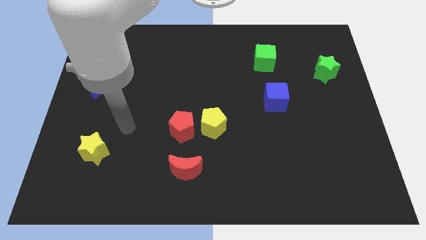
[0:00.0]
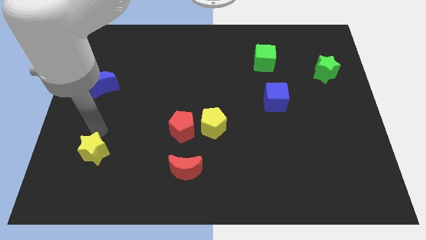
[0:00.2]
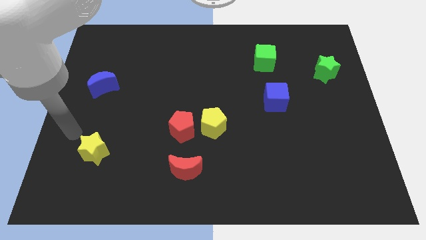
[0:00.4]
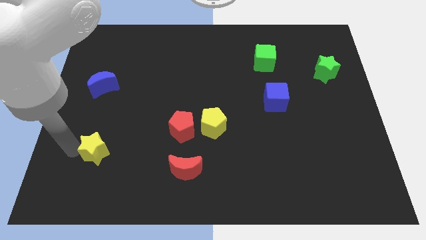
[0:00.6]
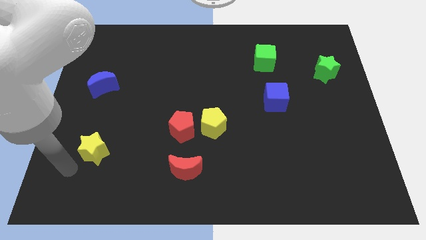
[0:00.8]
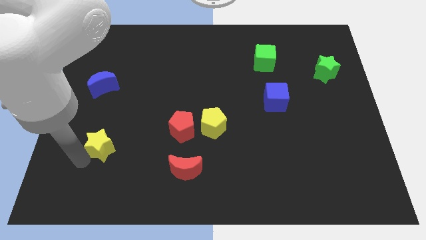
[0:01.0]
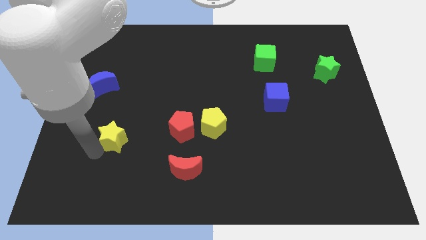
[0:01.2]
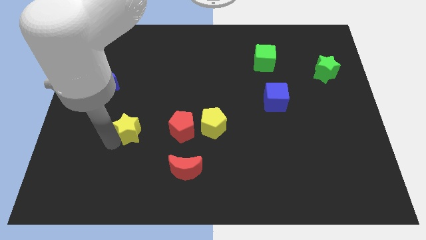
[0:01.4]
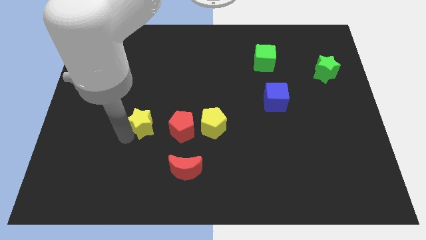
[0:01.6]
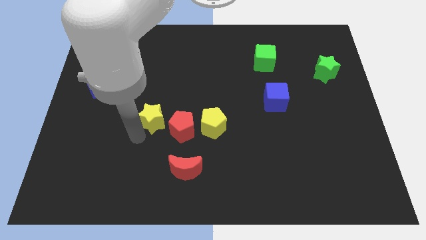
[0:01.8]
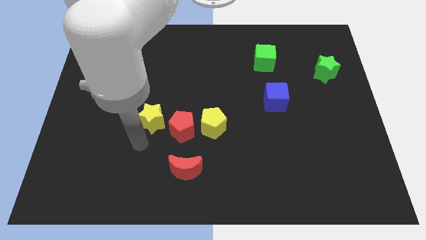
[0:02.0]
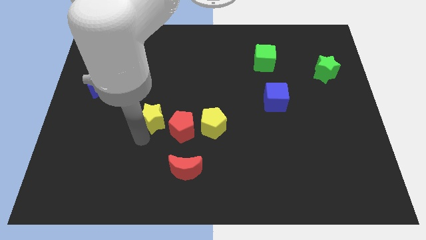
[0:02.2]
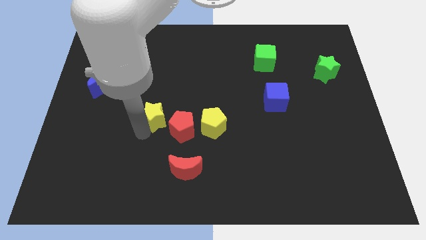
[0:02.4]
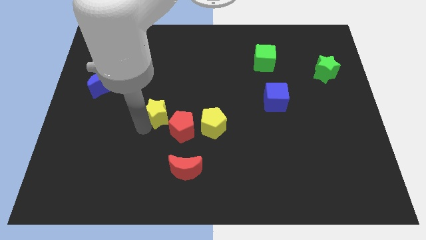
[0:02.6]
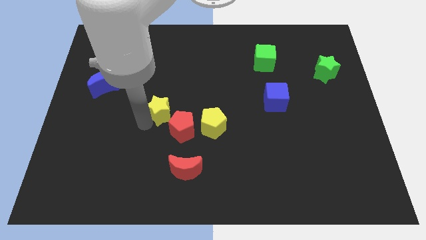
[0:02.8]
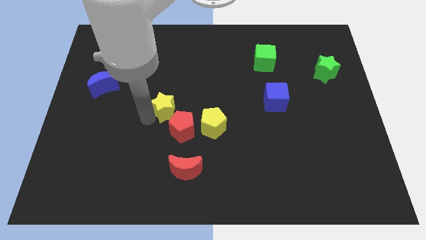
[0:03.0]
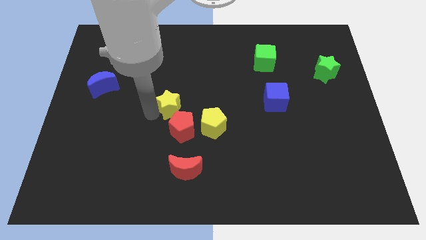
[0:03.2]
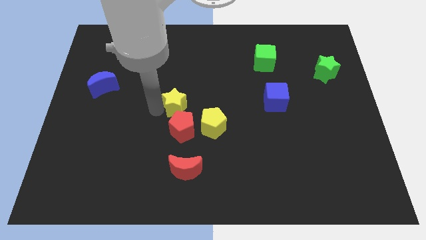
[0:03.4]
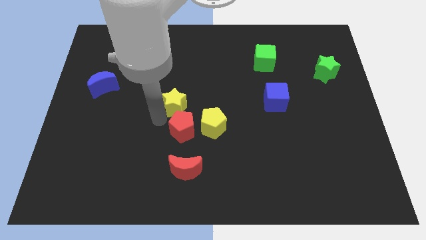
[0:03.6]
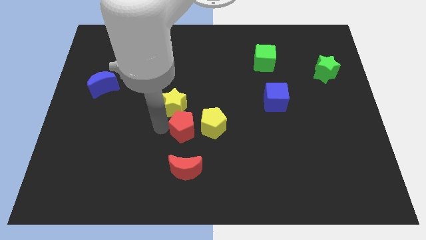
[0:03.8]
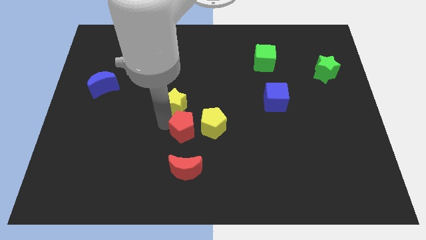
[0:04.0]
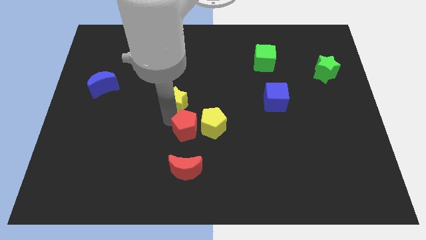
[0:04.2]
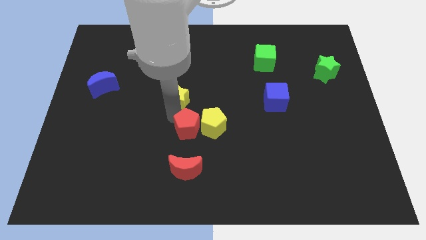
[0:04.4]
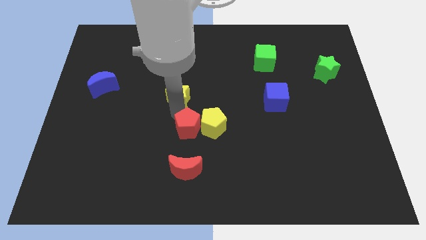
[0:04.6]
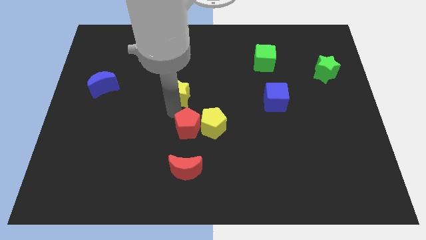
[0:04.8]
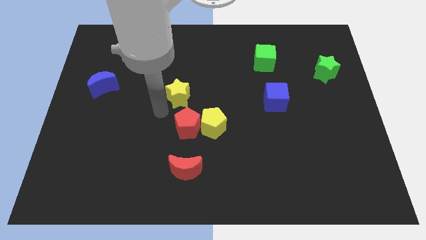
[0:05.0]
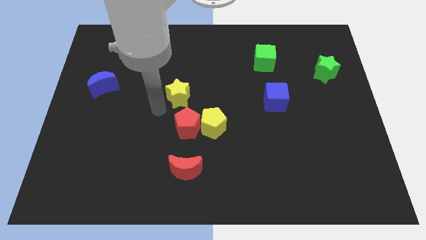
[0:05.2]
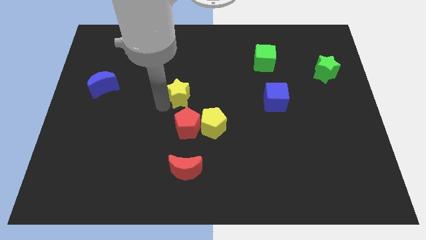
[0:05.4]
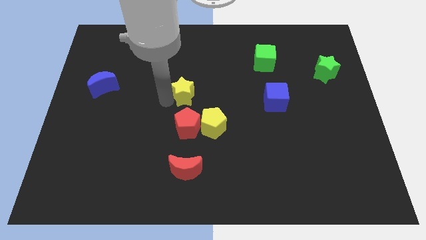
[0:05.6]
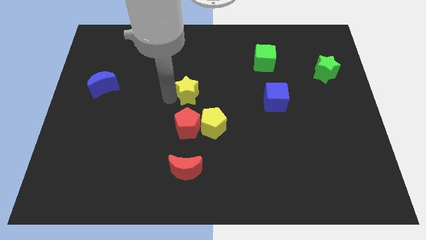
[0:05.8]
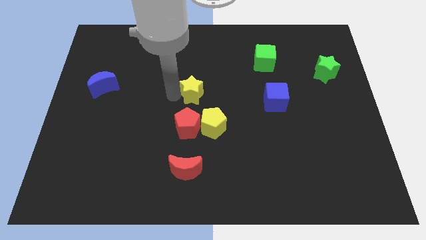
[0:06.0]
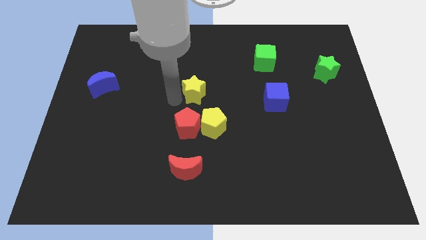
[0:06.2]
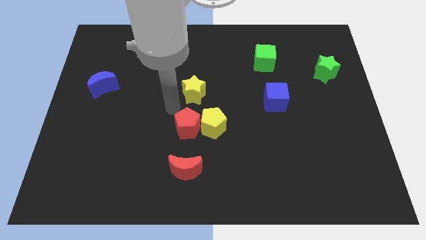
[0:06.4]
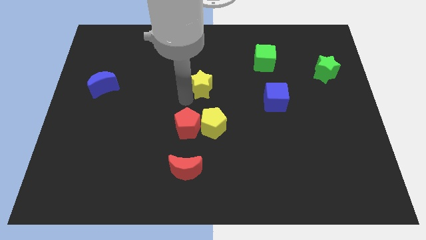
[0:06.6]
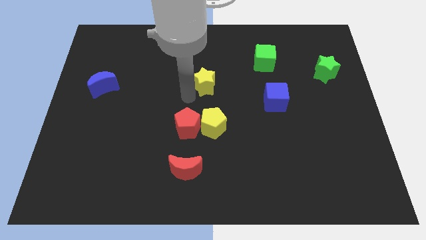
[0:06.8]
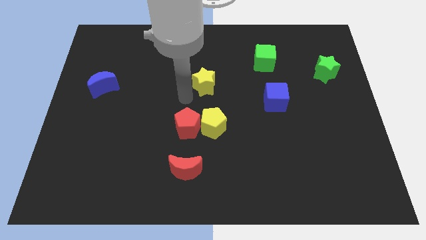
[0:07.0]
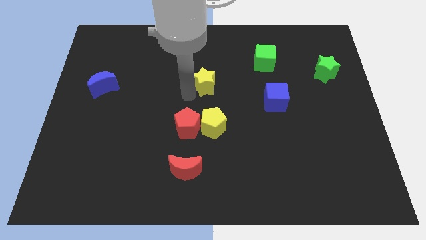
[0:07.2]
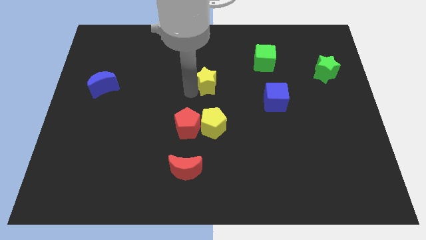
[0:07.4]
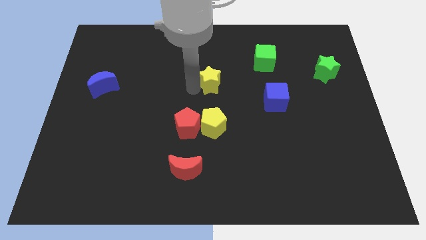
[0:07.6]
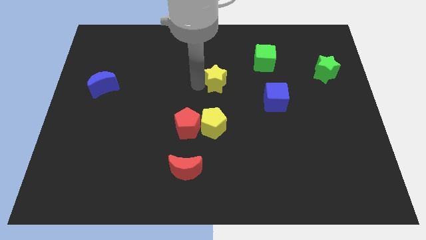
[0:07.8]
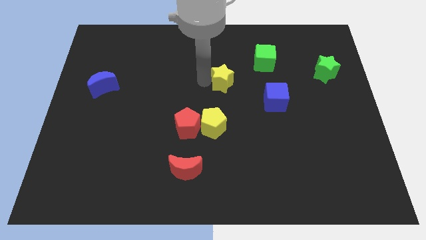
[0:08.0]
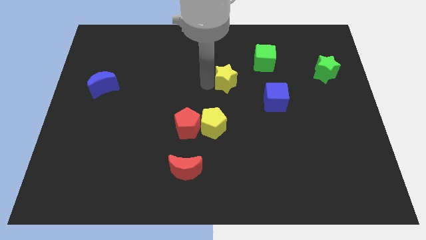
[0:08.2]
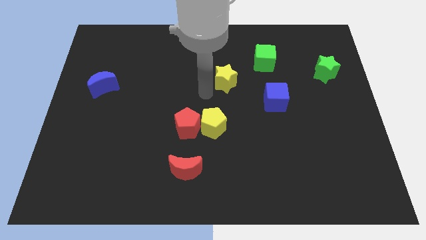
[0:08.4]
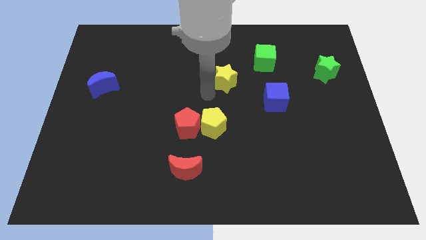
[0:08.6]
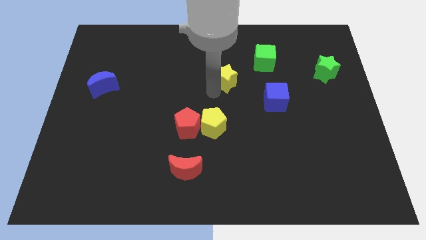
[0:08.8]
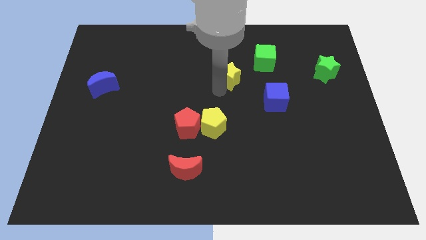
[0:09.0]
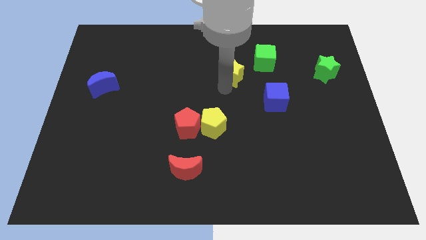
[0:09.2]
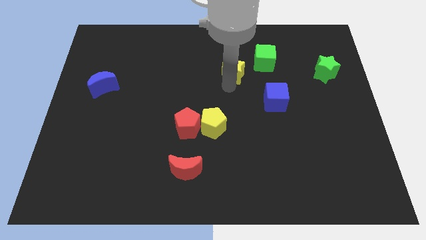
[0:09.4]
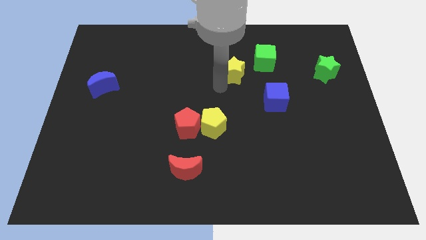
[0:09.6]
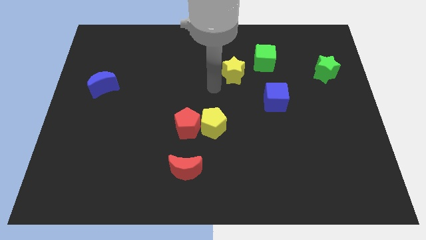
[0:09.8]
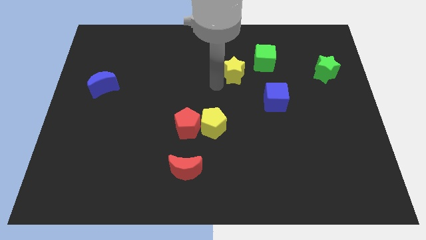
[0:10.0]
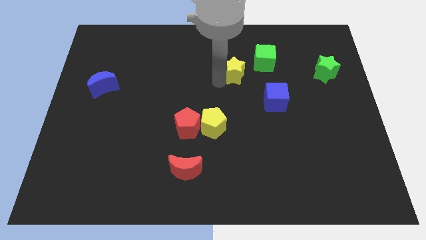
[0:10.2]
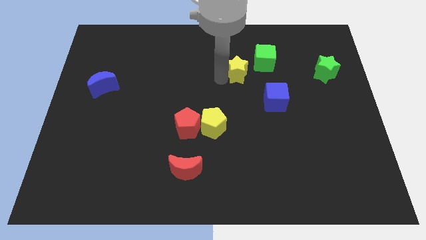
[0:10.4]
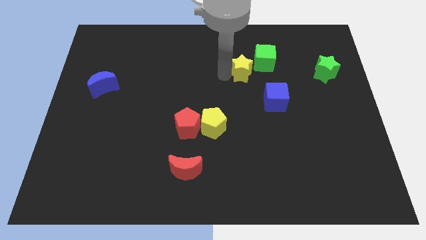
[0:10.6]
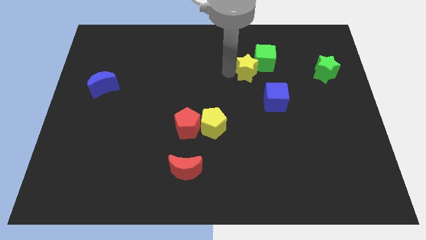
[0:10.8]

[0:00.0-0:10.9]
slide the yellow star to the green cube

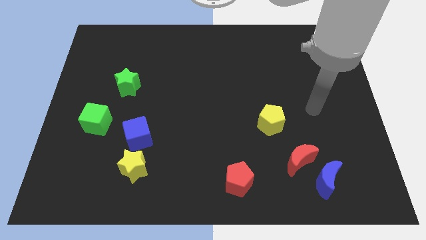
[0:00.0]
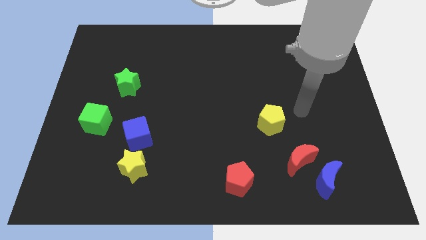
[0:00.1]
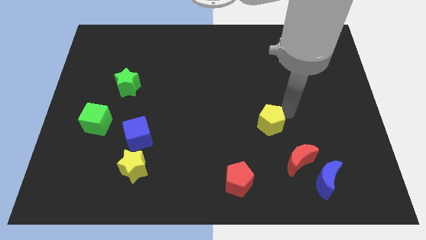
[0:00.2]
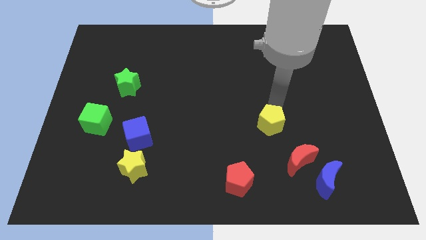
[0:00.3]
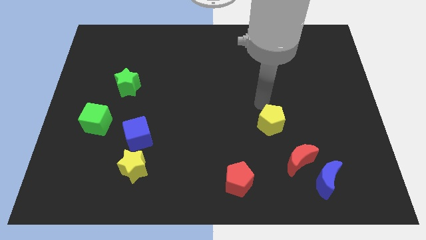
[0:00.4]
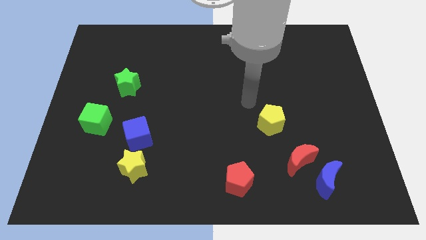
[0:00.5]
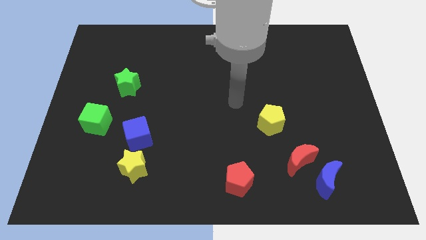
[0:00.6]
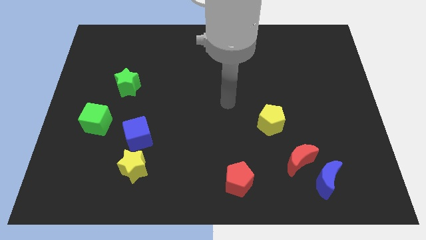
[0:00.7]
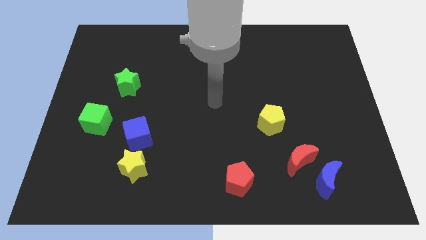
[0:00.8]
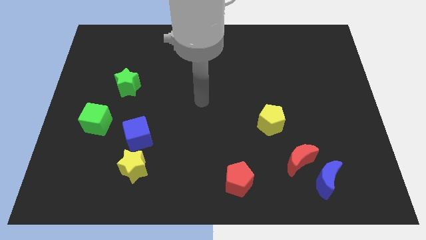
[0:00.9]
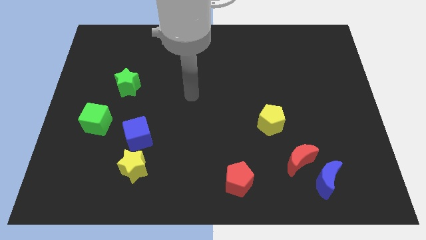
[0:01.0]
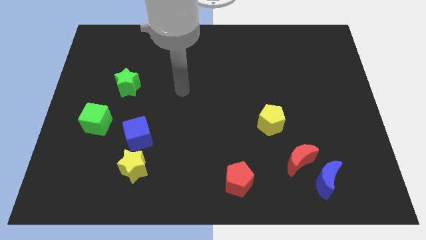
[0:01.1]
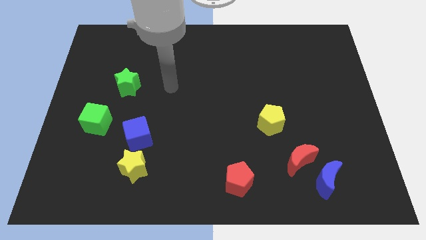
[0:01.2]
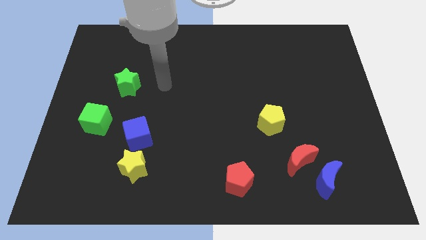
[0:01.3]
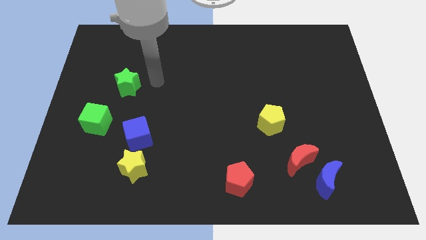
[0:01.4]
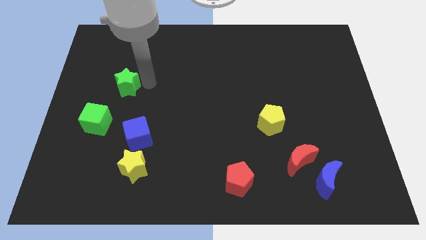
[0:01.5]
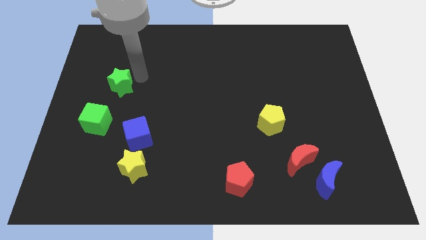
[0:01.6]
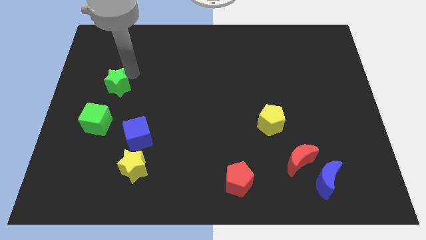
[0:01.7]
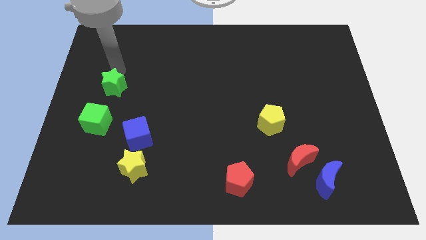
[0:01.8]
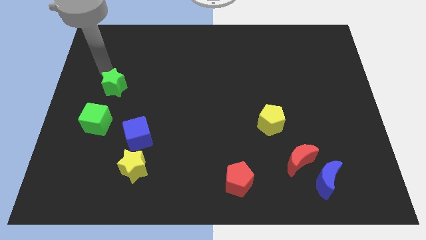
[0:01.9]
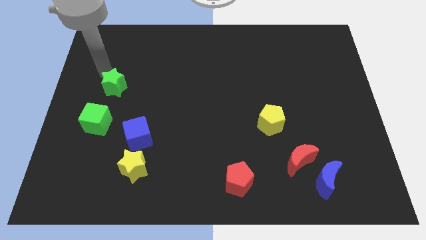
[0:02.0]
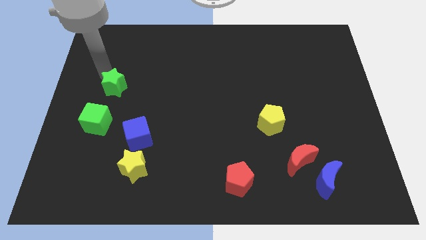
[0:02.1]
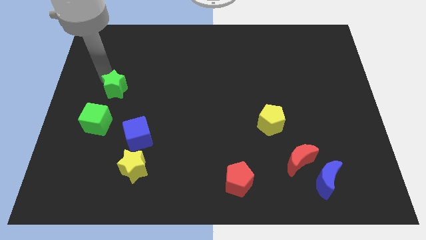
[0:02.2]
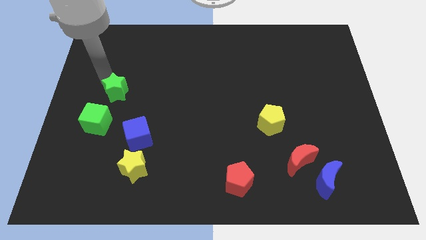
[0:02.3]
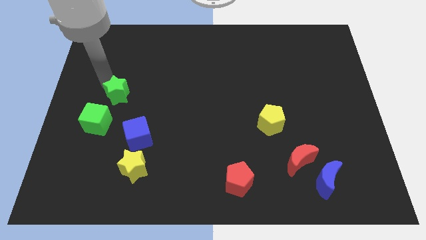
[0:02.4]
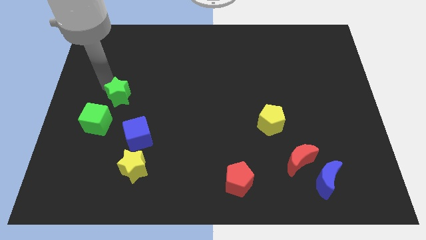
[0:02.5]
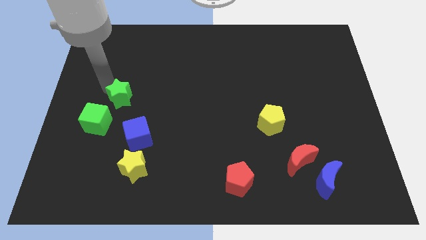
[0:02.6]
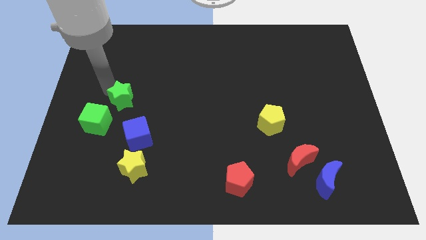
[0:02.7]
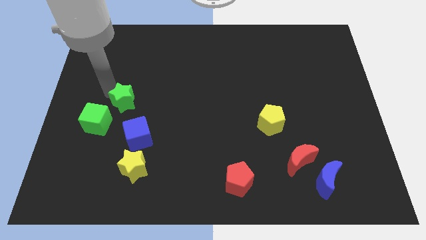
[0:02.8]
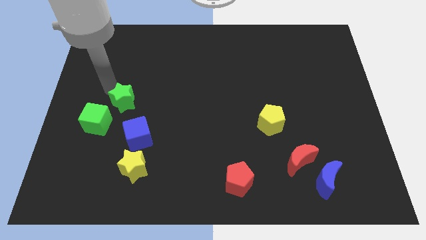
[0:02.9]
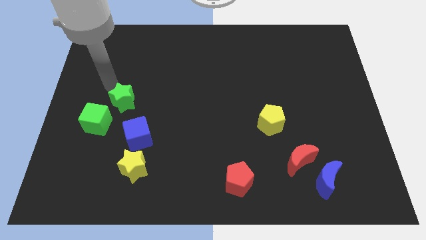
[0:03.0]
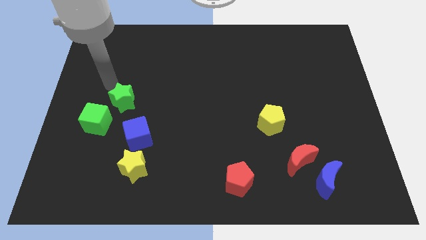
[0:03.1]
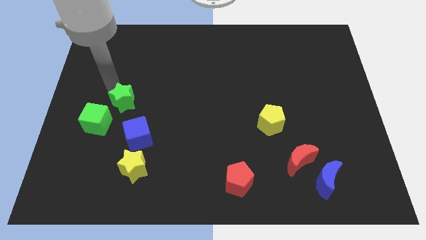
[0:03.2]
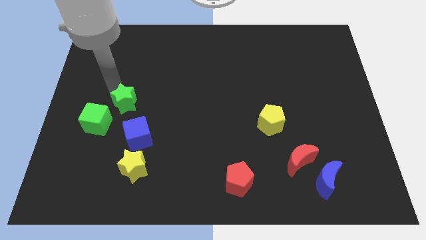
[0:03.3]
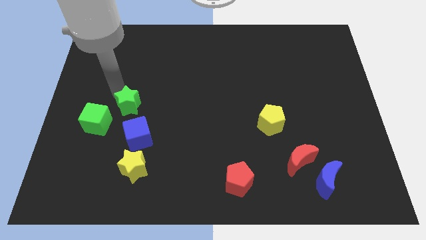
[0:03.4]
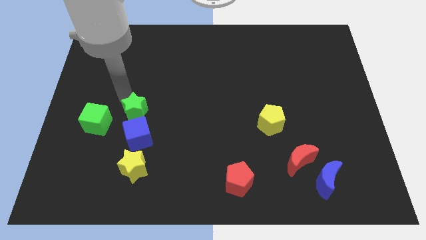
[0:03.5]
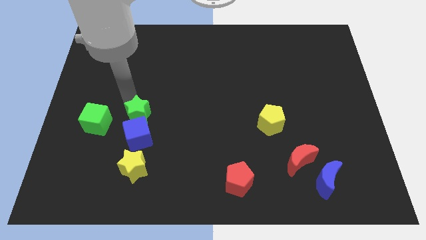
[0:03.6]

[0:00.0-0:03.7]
push the green star next to the blue cube
